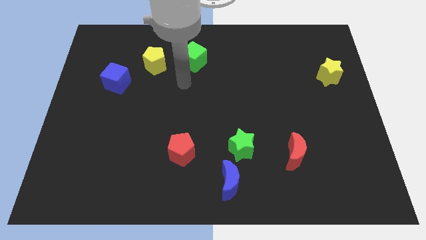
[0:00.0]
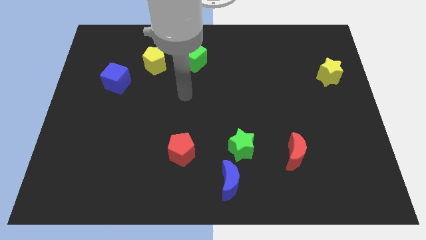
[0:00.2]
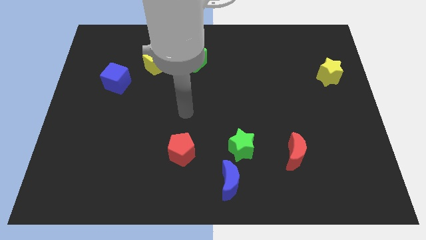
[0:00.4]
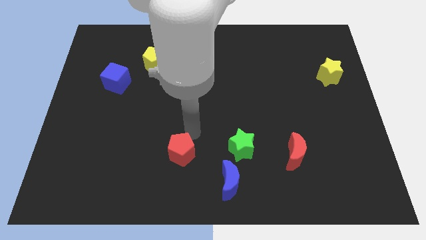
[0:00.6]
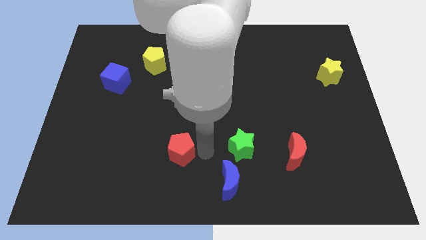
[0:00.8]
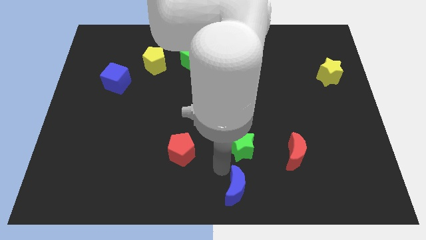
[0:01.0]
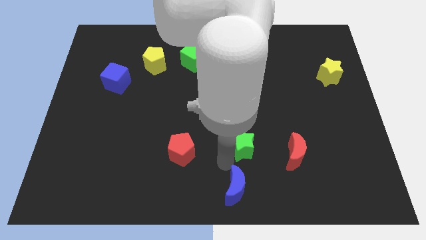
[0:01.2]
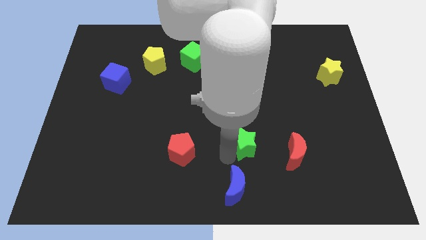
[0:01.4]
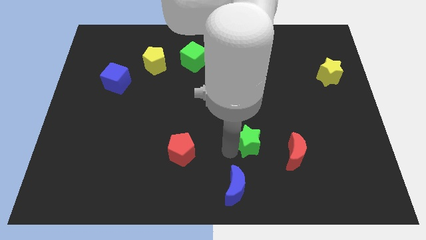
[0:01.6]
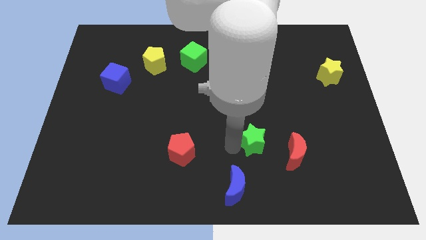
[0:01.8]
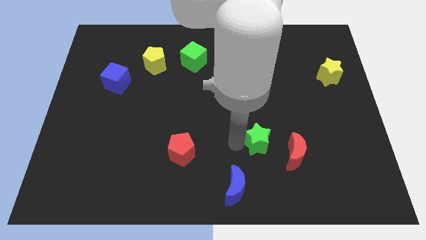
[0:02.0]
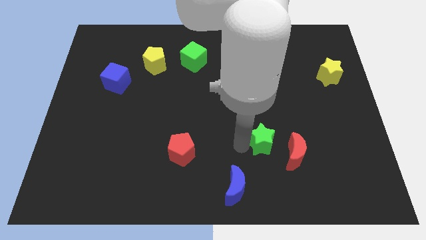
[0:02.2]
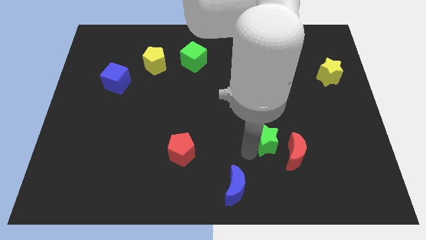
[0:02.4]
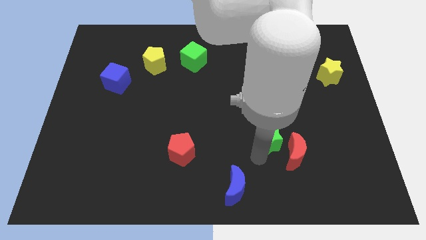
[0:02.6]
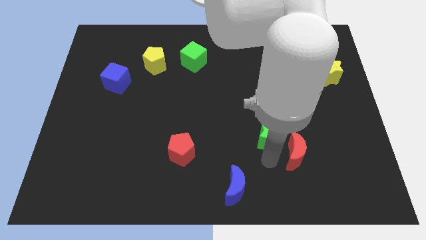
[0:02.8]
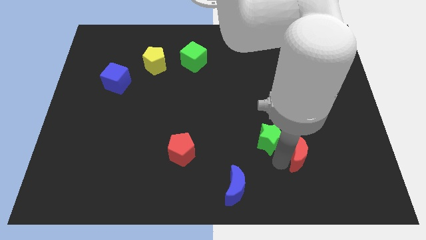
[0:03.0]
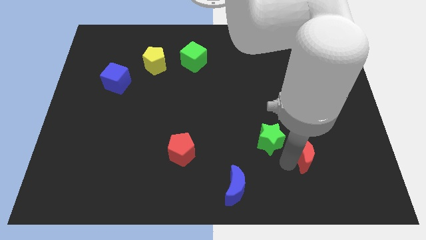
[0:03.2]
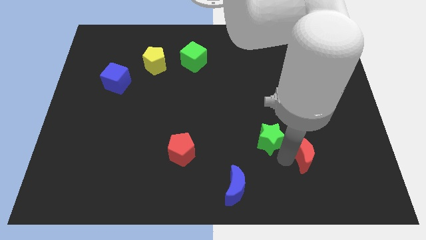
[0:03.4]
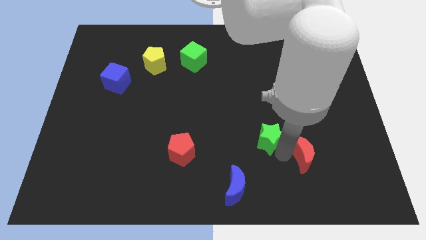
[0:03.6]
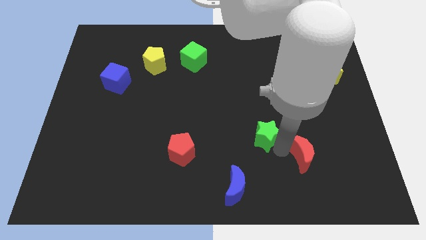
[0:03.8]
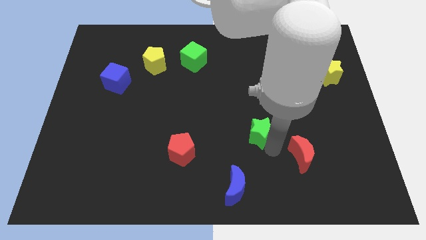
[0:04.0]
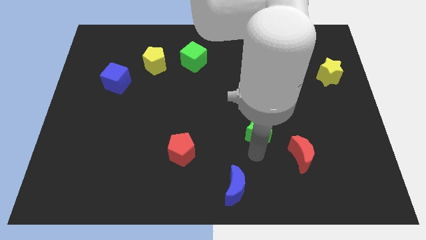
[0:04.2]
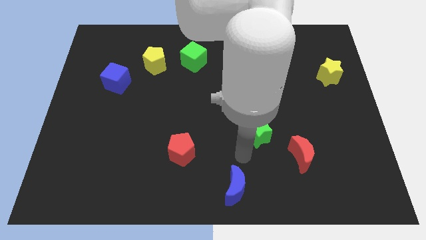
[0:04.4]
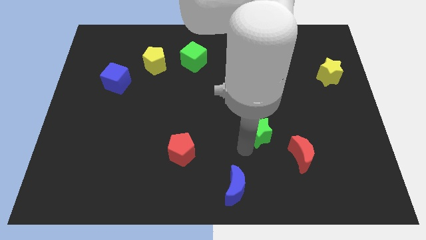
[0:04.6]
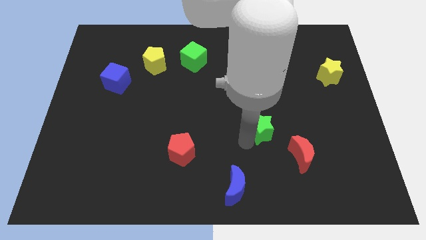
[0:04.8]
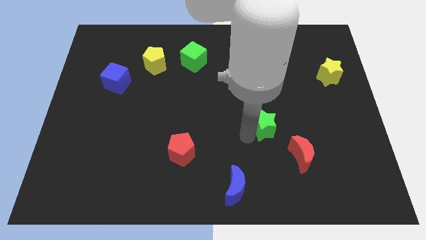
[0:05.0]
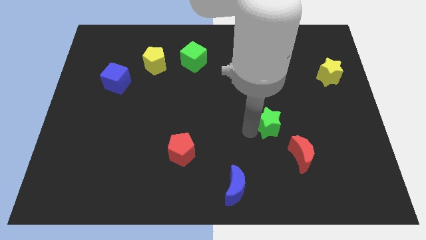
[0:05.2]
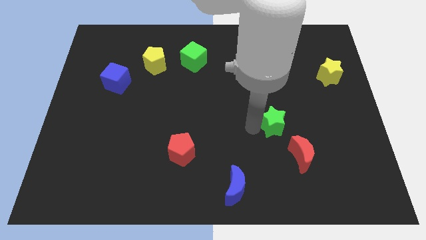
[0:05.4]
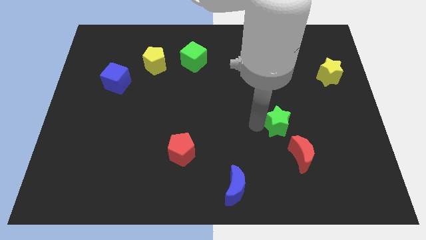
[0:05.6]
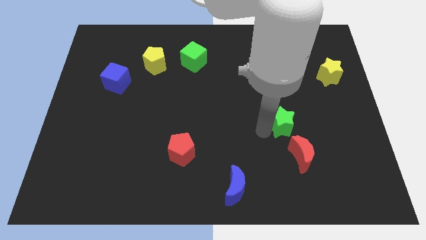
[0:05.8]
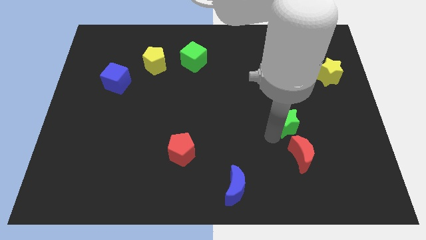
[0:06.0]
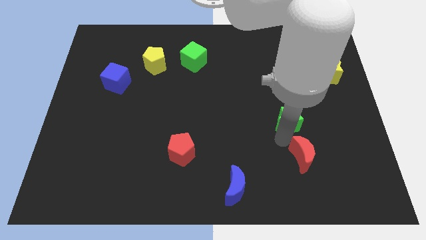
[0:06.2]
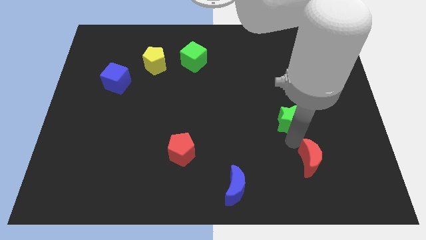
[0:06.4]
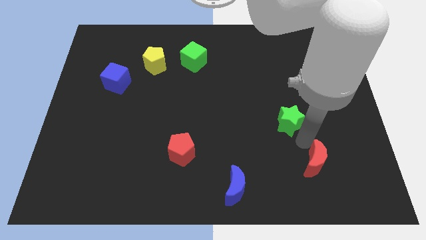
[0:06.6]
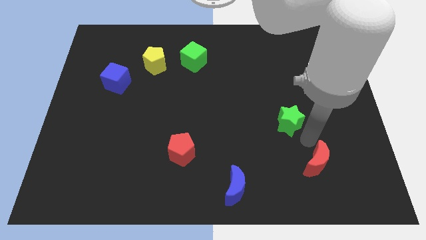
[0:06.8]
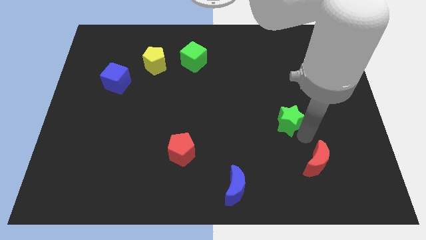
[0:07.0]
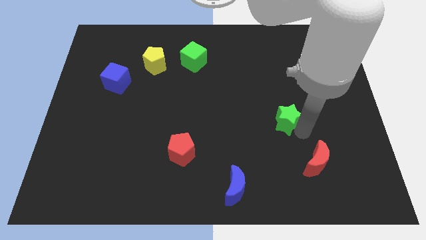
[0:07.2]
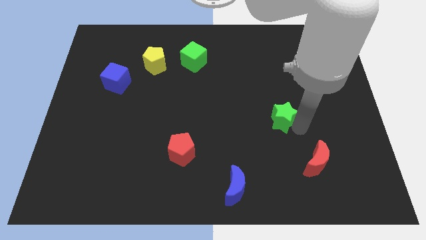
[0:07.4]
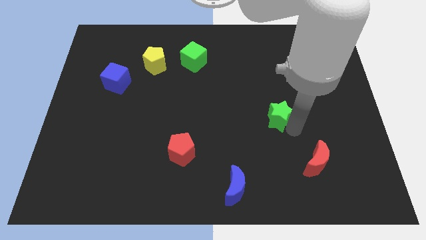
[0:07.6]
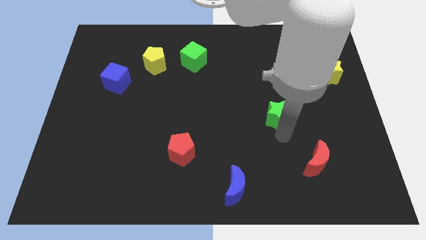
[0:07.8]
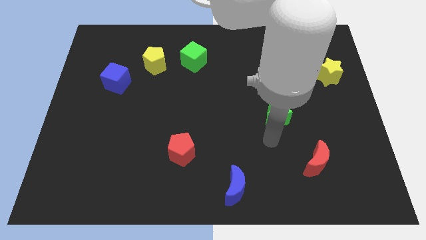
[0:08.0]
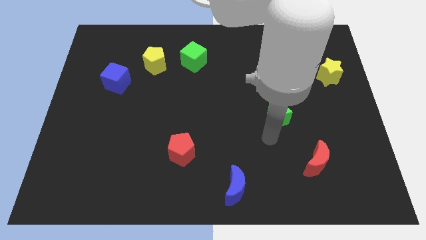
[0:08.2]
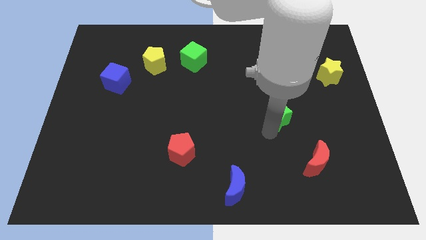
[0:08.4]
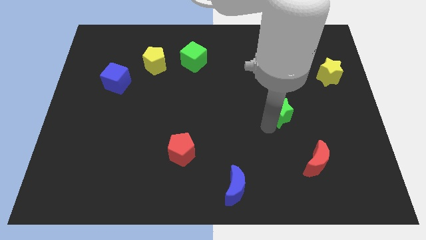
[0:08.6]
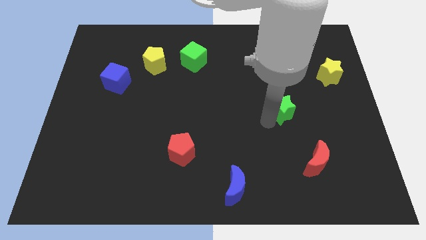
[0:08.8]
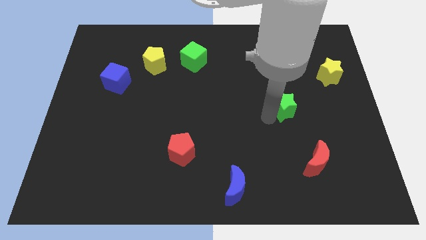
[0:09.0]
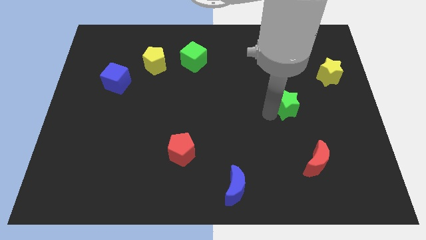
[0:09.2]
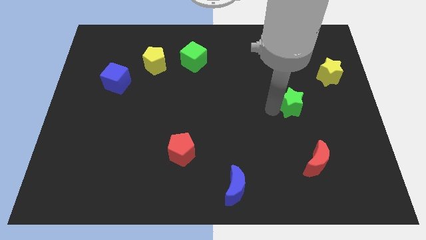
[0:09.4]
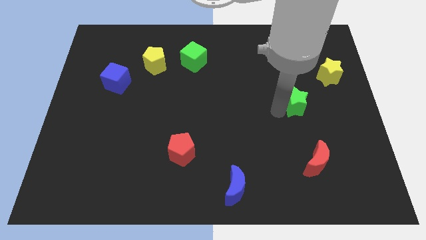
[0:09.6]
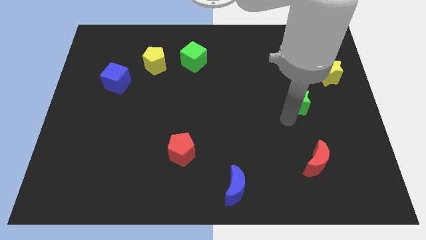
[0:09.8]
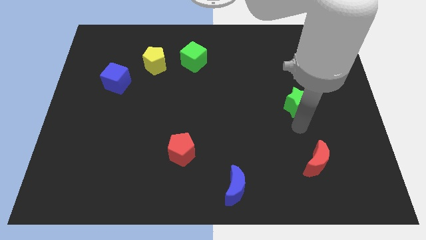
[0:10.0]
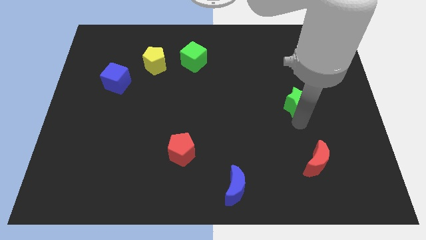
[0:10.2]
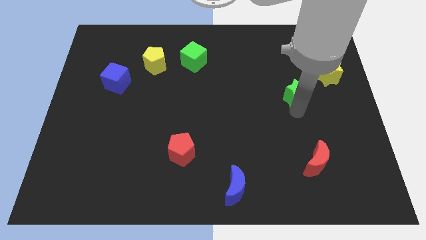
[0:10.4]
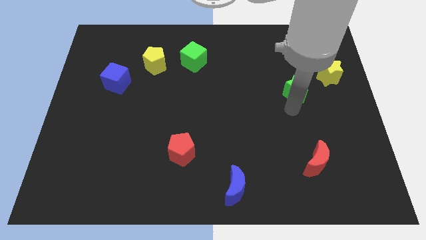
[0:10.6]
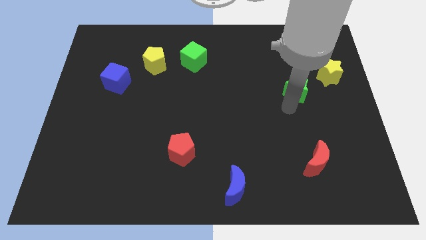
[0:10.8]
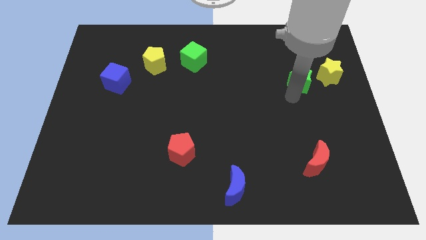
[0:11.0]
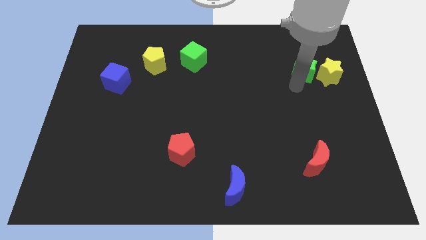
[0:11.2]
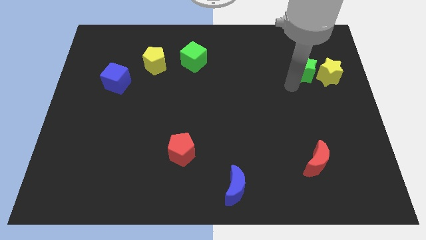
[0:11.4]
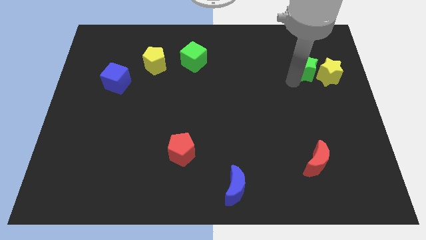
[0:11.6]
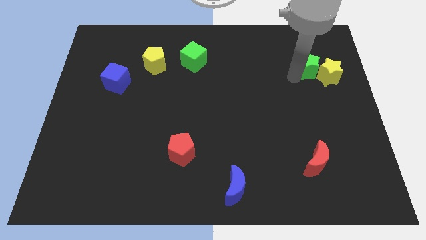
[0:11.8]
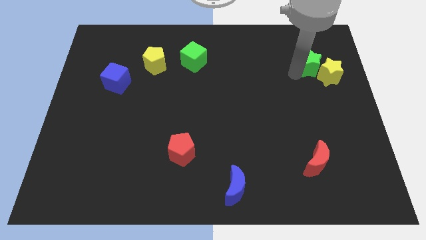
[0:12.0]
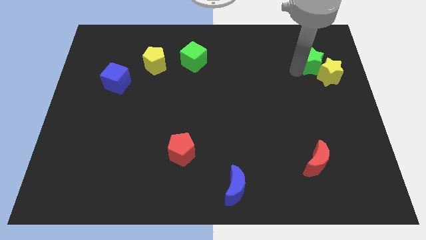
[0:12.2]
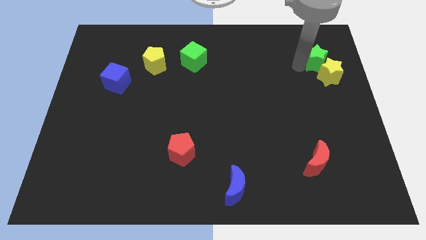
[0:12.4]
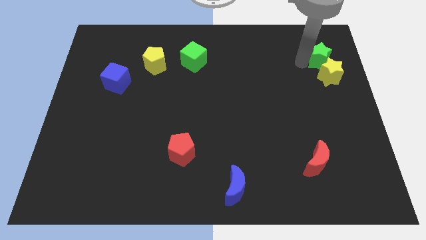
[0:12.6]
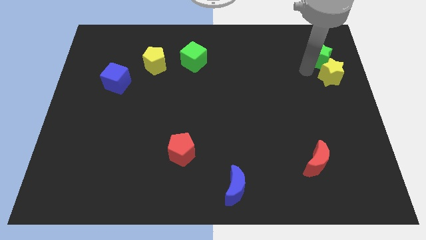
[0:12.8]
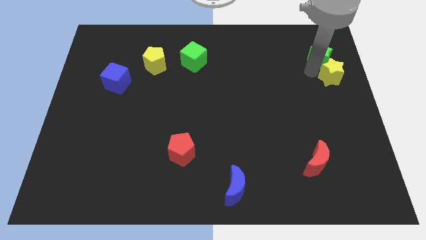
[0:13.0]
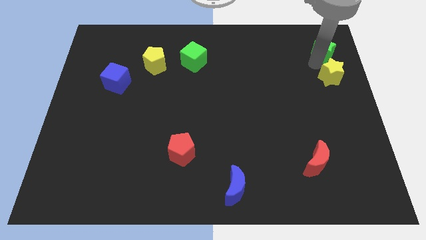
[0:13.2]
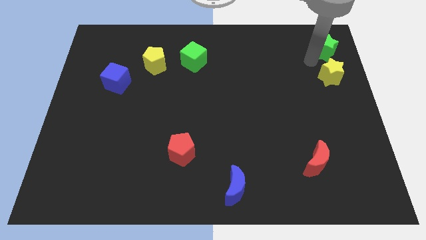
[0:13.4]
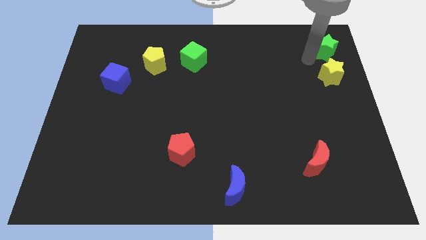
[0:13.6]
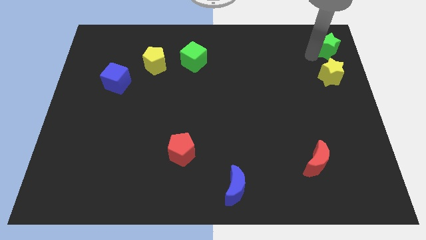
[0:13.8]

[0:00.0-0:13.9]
slide the green star to the top right of the board
